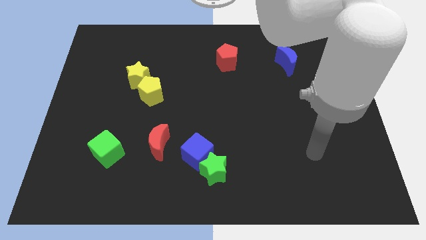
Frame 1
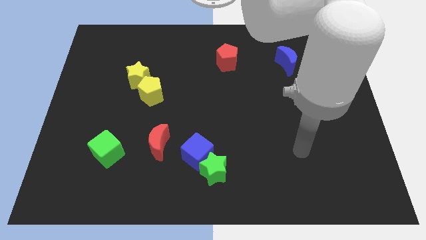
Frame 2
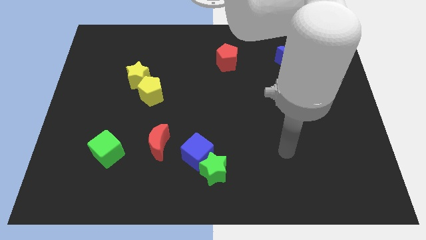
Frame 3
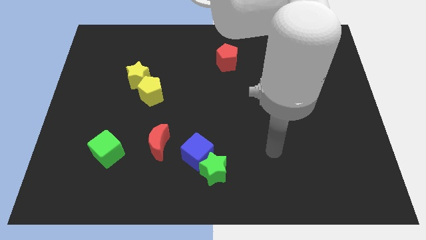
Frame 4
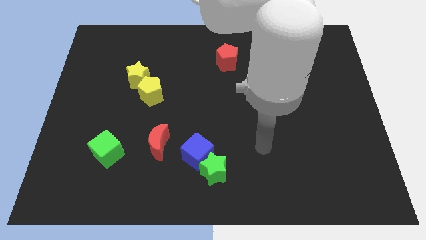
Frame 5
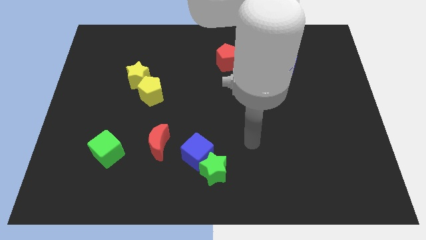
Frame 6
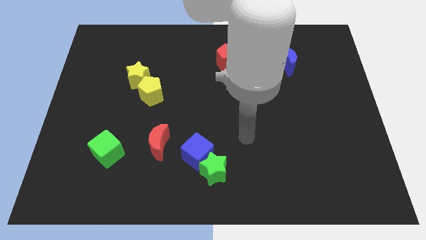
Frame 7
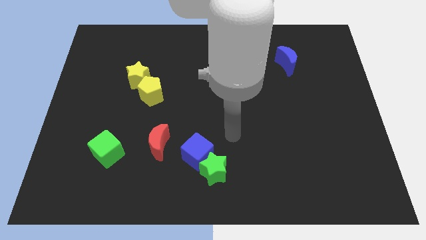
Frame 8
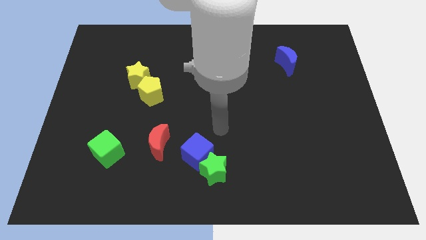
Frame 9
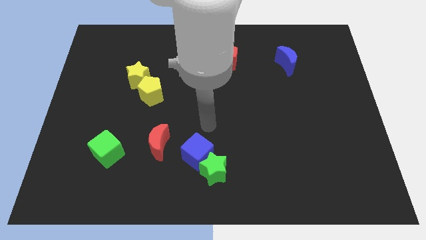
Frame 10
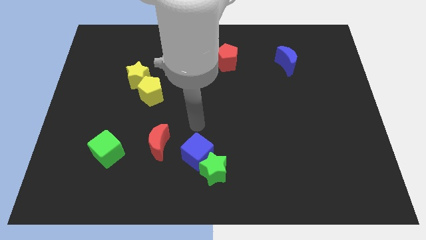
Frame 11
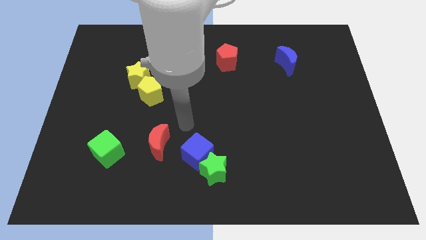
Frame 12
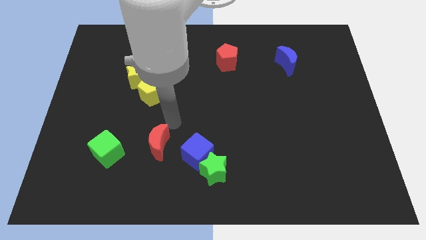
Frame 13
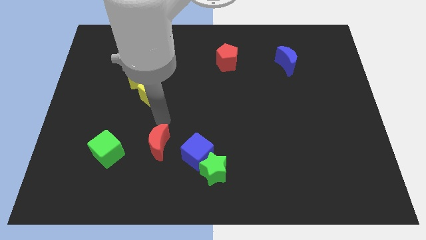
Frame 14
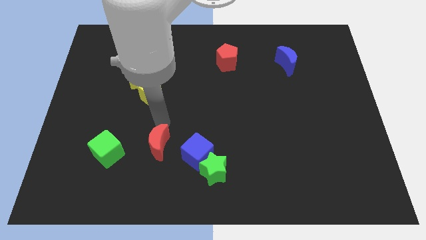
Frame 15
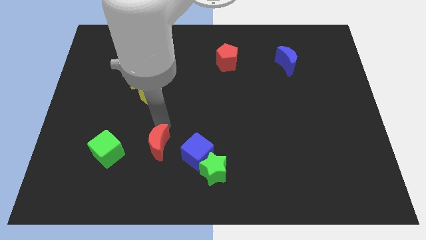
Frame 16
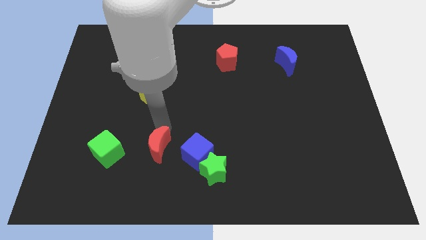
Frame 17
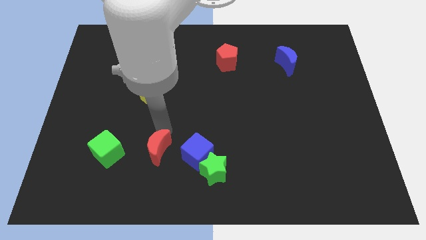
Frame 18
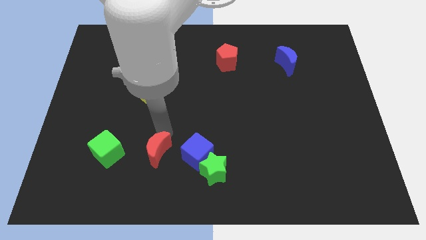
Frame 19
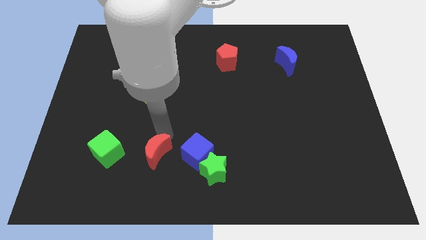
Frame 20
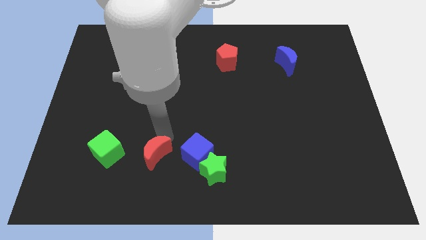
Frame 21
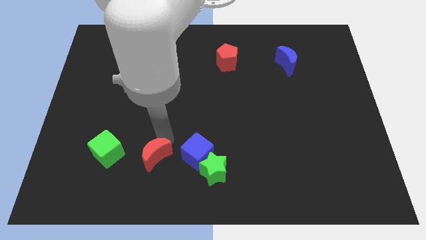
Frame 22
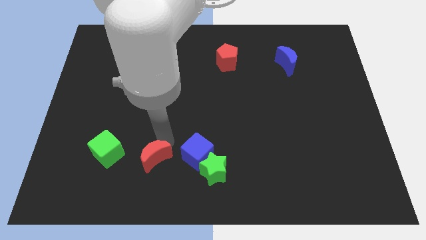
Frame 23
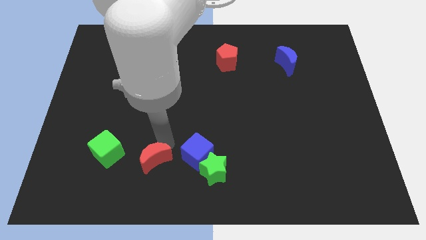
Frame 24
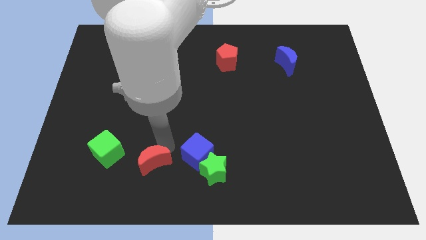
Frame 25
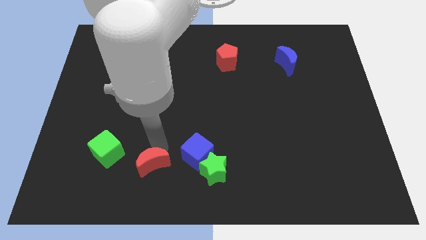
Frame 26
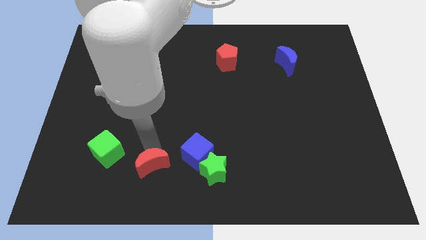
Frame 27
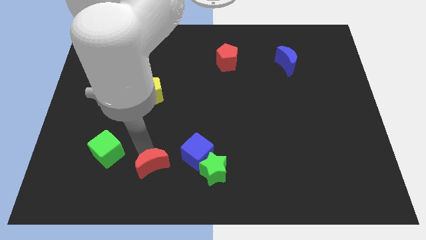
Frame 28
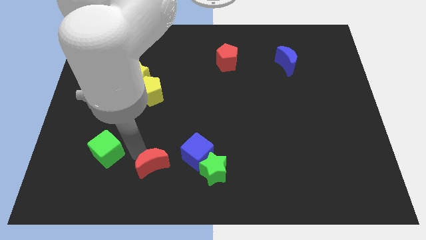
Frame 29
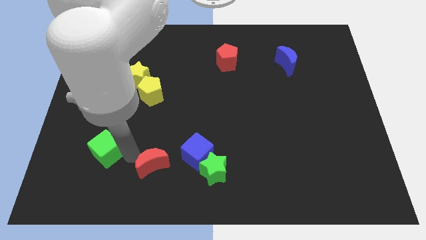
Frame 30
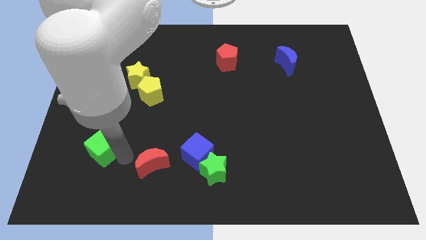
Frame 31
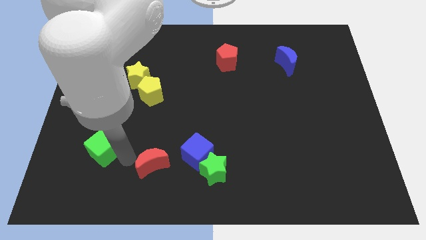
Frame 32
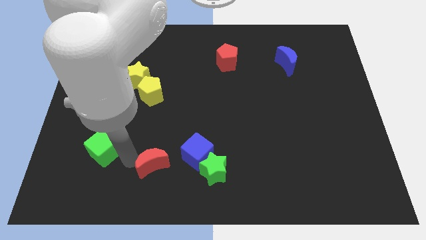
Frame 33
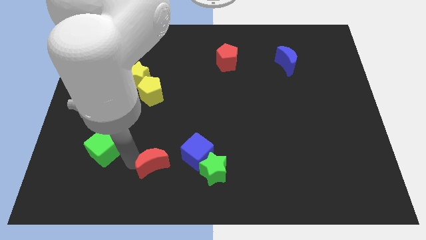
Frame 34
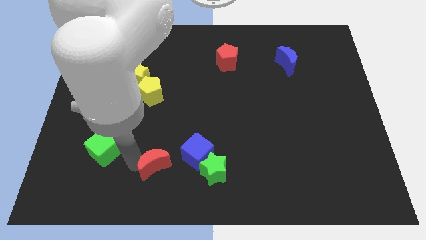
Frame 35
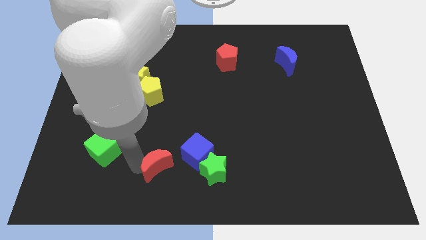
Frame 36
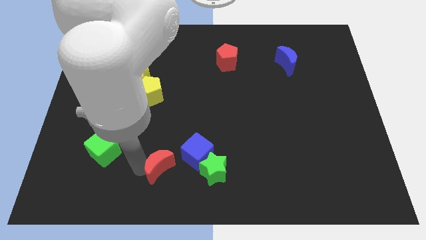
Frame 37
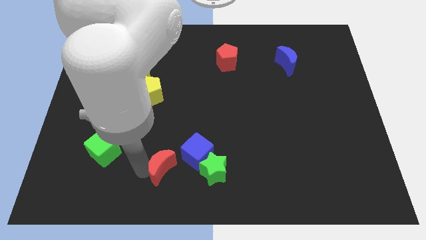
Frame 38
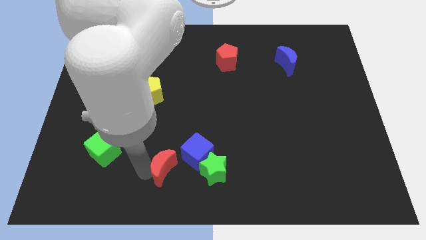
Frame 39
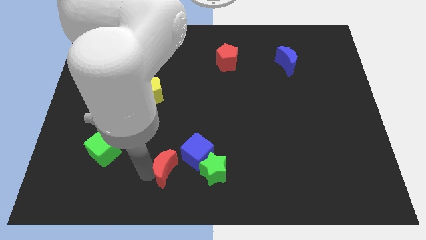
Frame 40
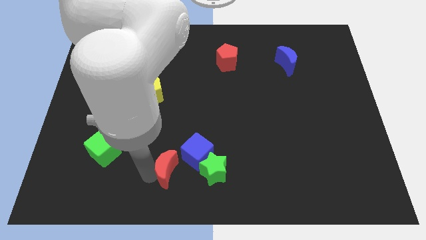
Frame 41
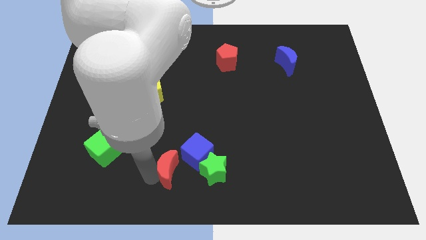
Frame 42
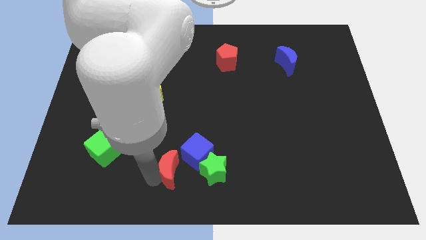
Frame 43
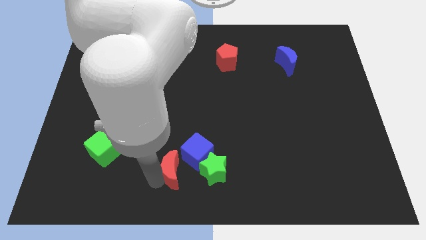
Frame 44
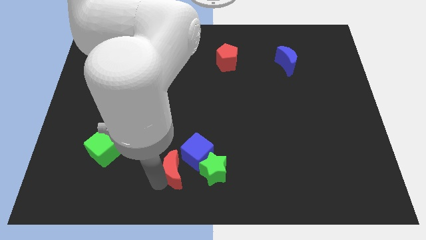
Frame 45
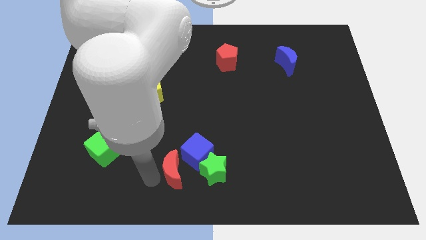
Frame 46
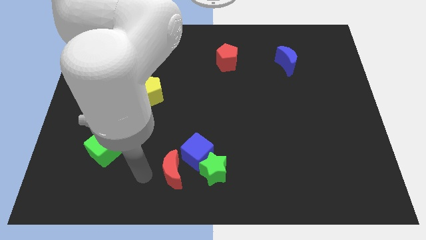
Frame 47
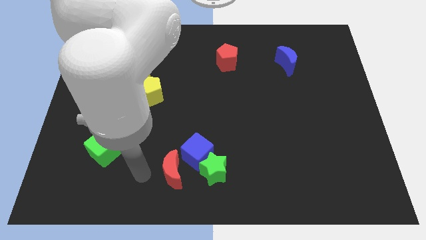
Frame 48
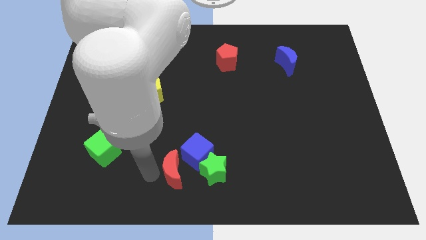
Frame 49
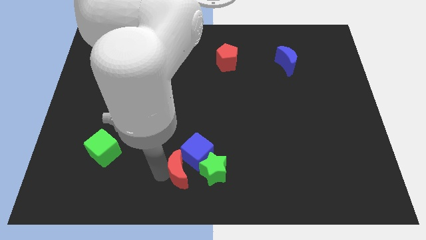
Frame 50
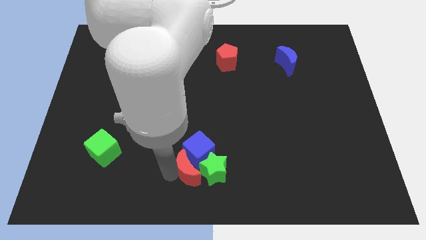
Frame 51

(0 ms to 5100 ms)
put the red moon to the green star

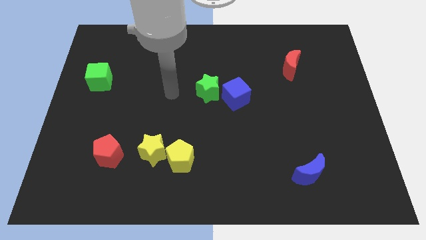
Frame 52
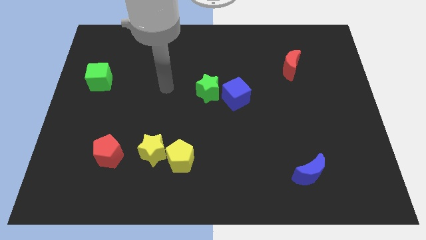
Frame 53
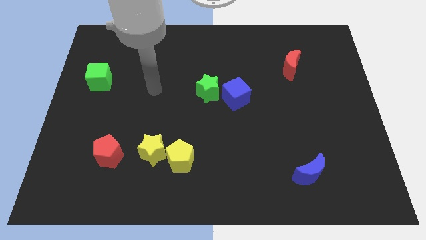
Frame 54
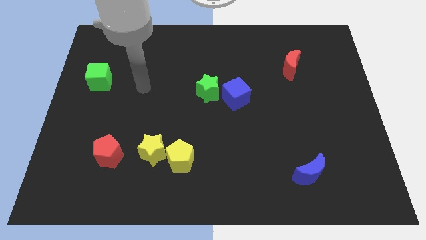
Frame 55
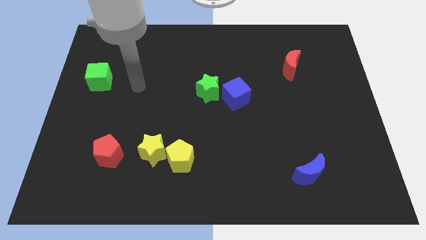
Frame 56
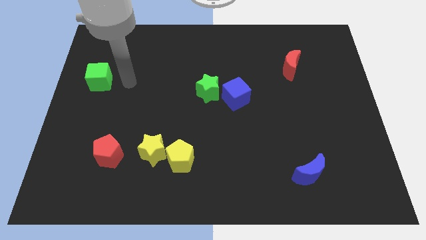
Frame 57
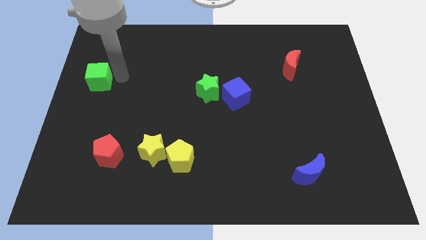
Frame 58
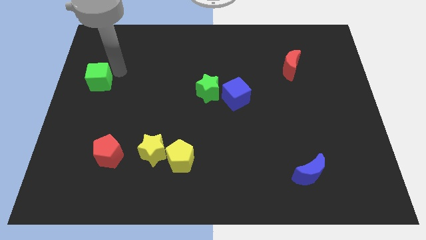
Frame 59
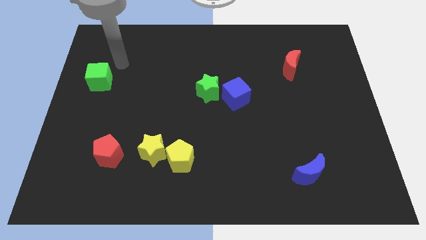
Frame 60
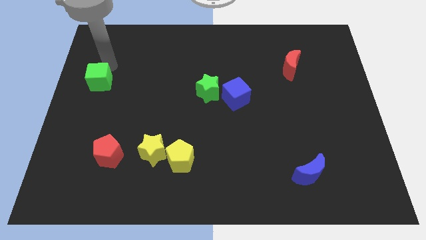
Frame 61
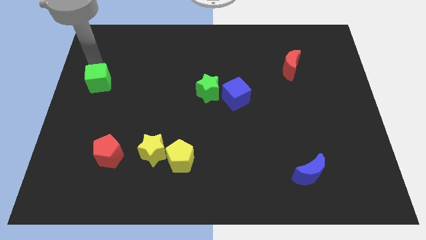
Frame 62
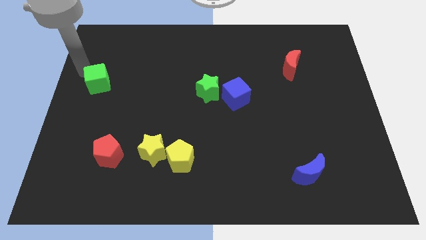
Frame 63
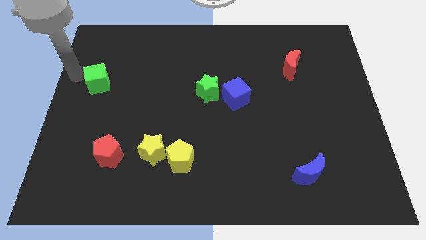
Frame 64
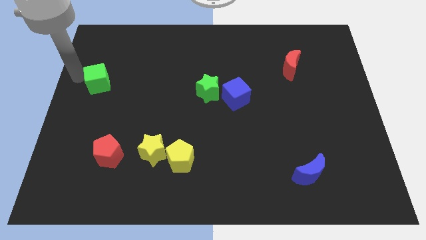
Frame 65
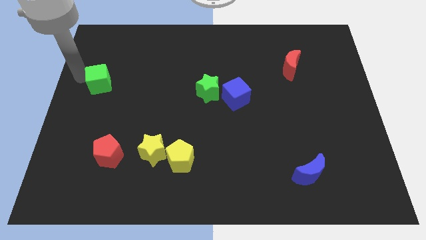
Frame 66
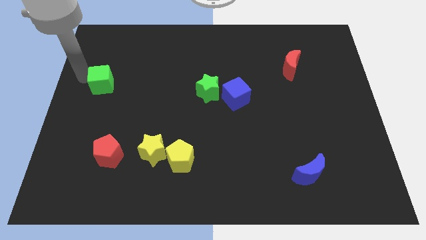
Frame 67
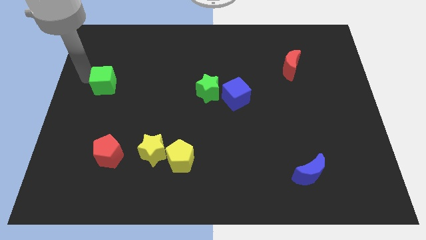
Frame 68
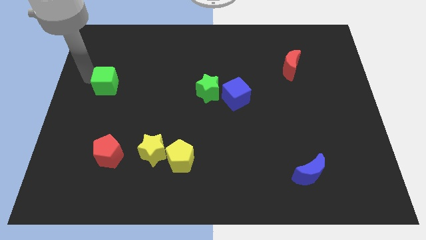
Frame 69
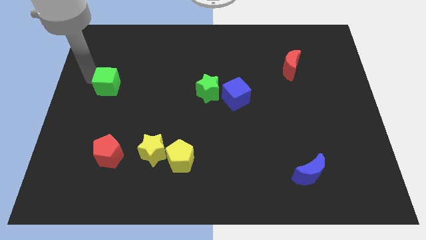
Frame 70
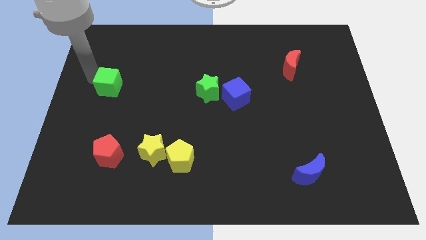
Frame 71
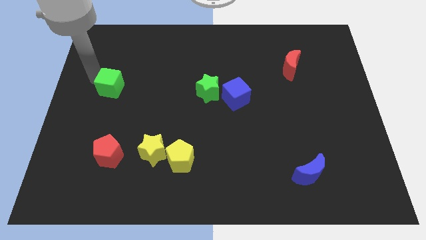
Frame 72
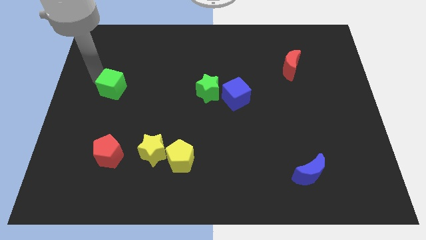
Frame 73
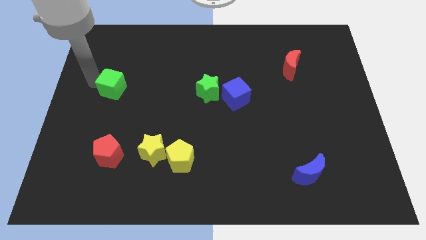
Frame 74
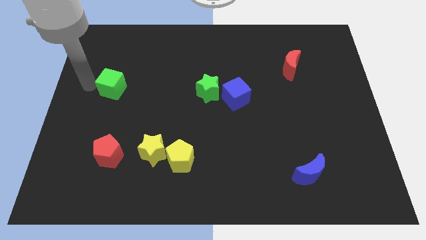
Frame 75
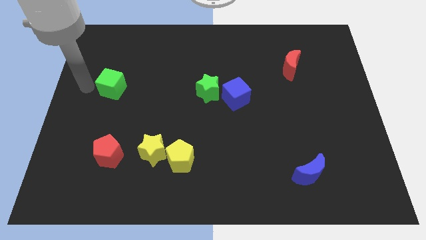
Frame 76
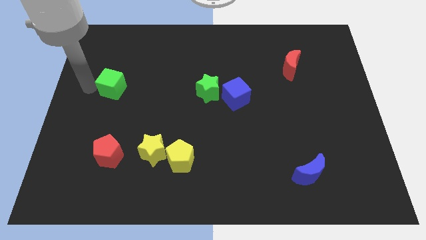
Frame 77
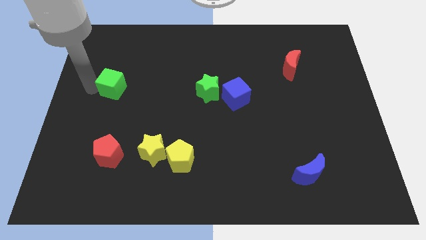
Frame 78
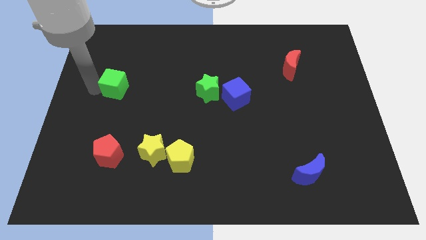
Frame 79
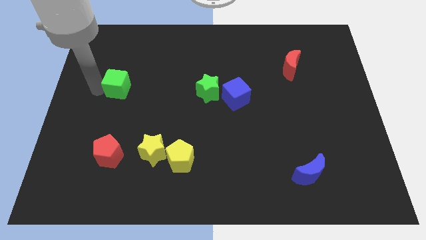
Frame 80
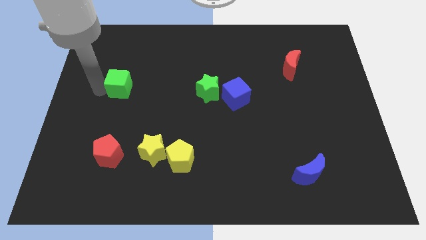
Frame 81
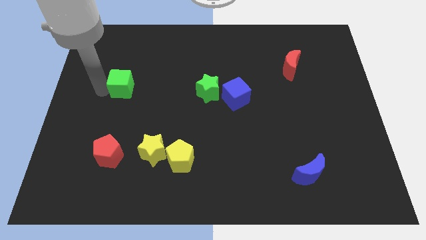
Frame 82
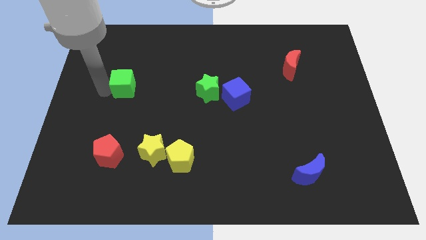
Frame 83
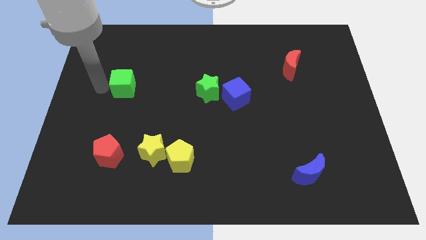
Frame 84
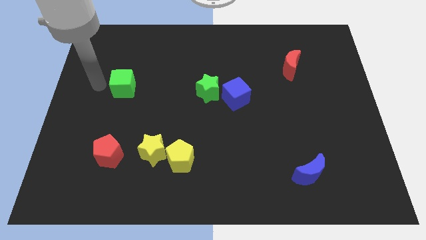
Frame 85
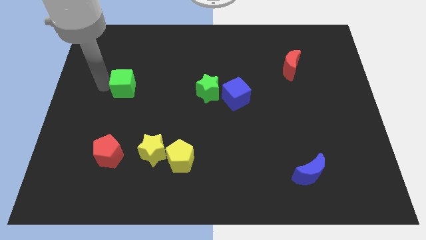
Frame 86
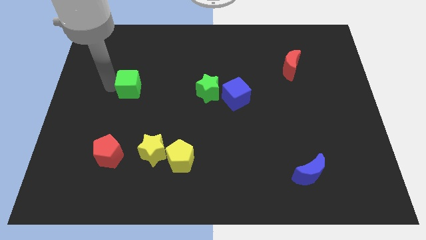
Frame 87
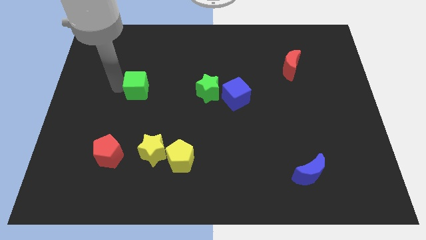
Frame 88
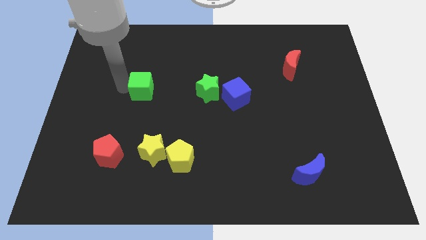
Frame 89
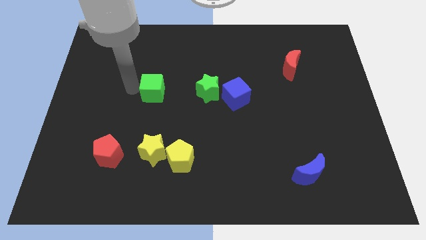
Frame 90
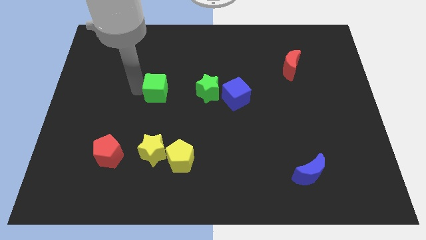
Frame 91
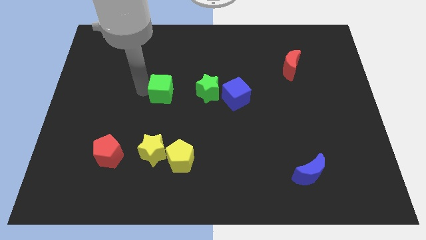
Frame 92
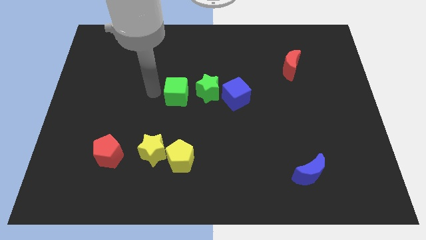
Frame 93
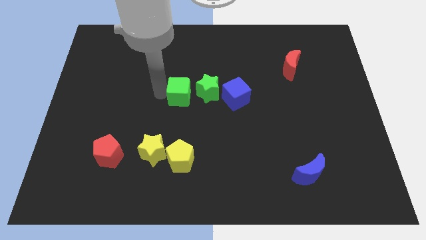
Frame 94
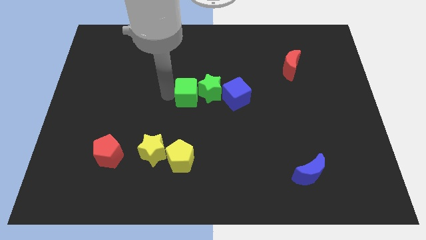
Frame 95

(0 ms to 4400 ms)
put the green cube close to the green star
